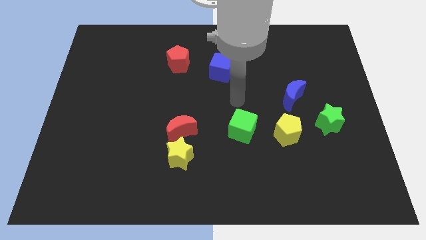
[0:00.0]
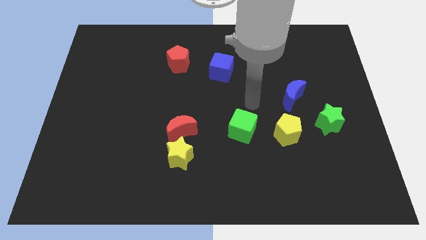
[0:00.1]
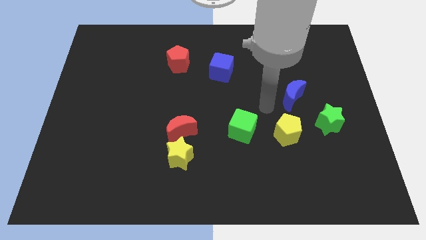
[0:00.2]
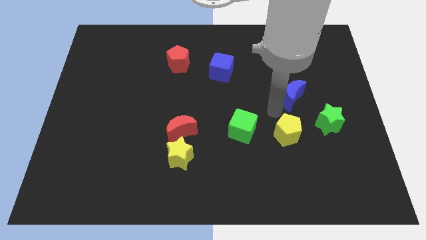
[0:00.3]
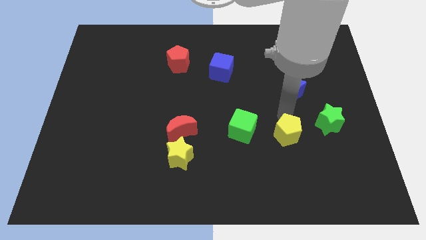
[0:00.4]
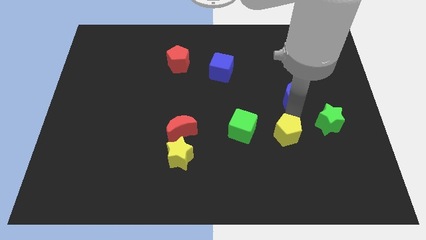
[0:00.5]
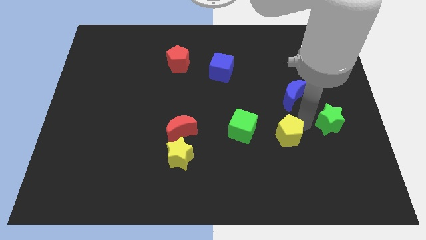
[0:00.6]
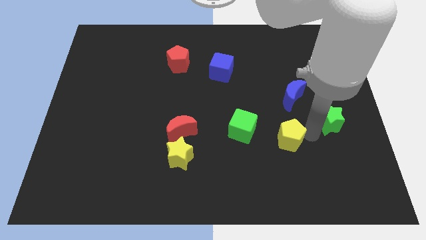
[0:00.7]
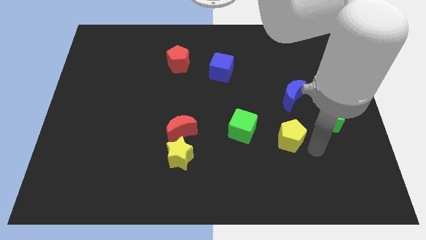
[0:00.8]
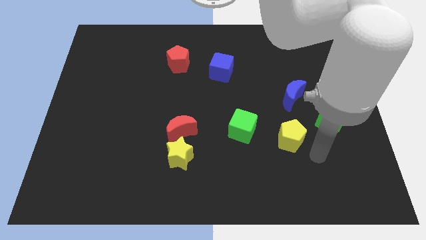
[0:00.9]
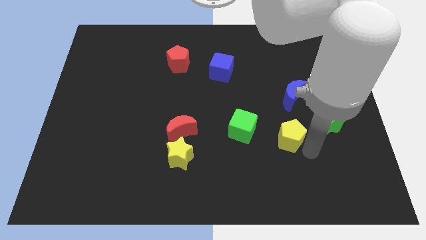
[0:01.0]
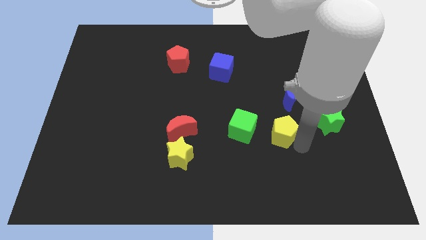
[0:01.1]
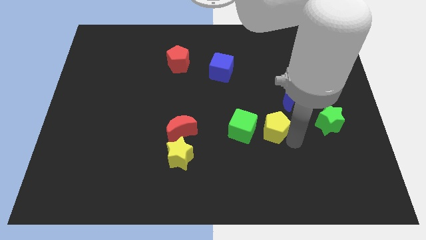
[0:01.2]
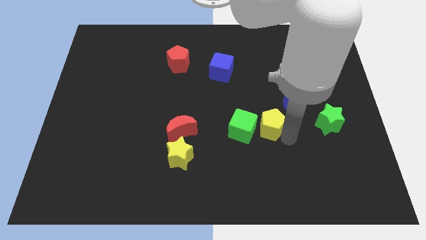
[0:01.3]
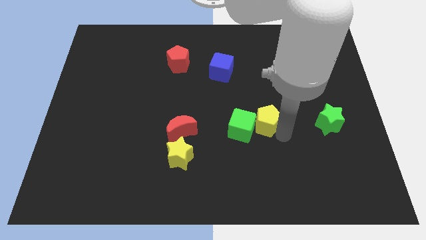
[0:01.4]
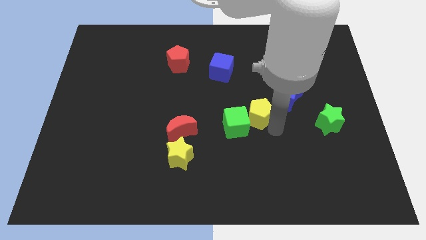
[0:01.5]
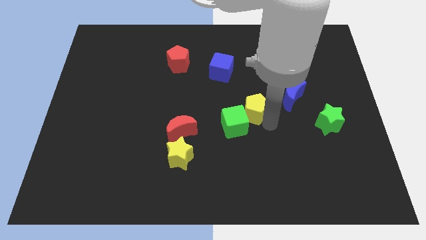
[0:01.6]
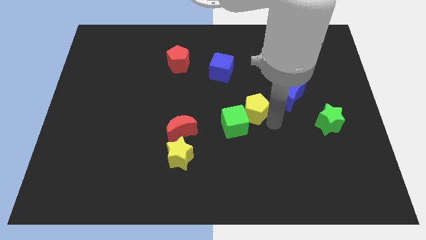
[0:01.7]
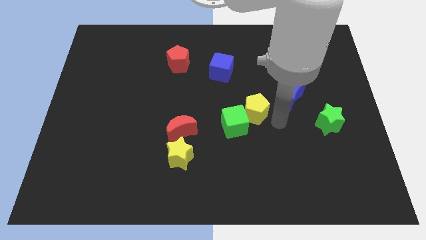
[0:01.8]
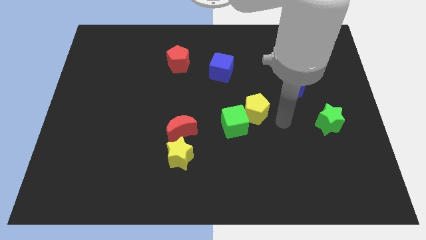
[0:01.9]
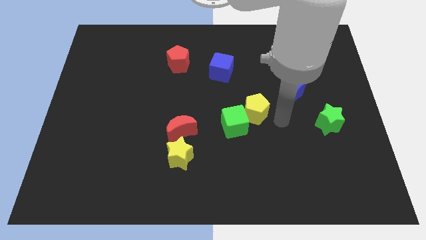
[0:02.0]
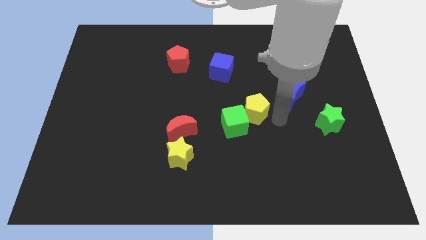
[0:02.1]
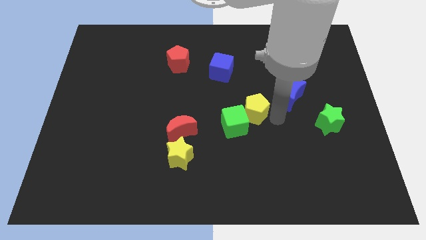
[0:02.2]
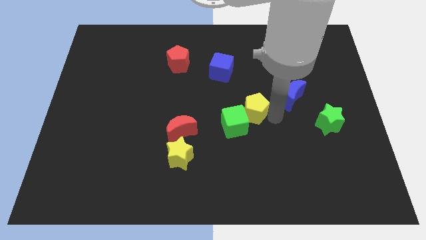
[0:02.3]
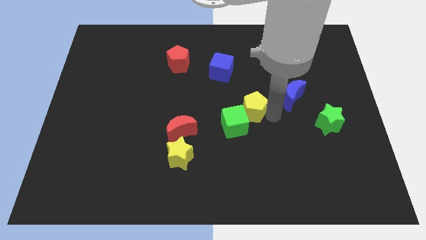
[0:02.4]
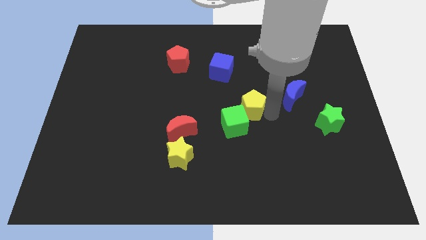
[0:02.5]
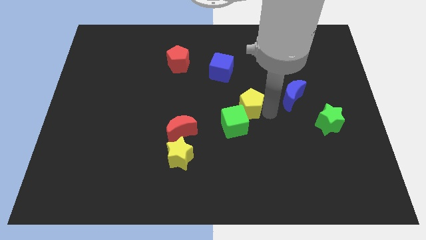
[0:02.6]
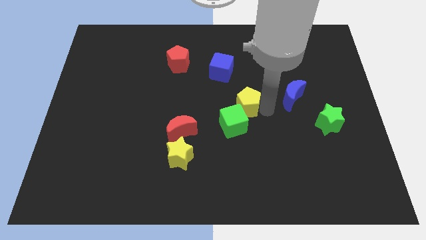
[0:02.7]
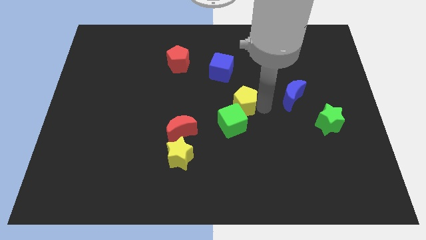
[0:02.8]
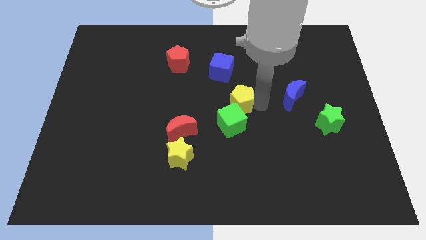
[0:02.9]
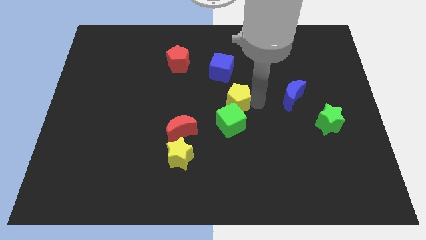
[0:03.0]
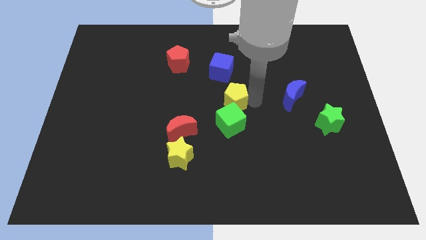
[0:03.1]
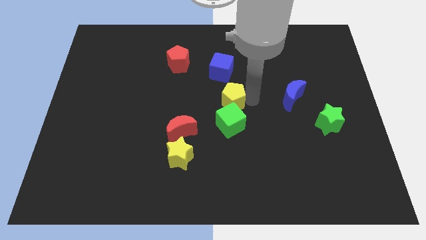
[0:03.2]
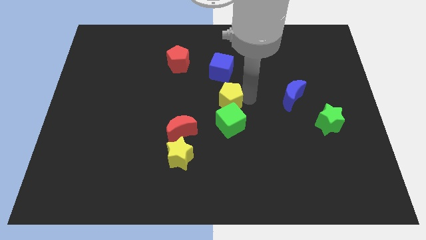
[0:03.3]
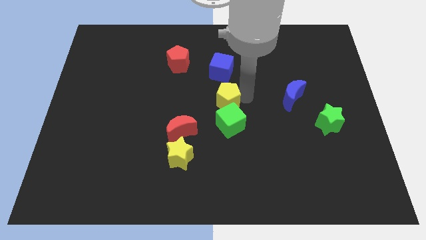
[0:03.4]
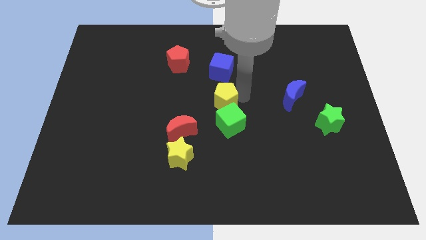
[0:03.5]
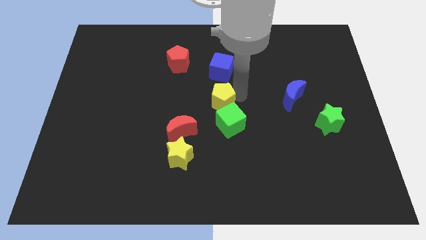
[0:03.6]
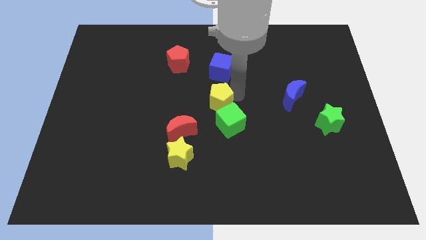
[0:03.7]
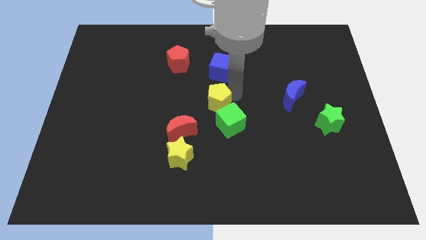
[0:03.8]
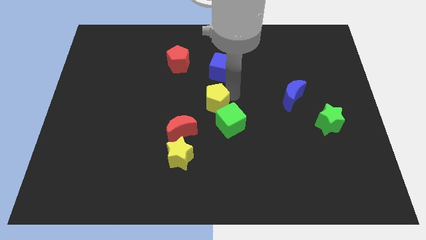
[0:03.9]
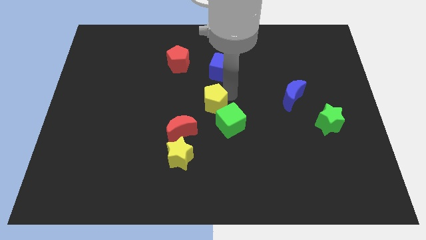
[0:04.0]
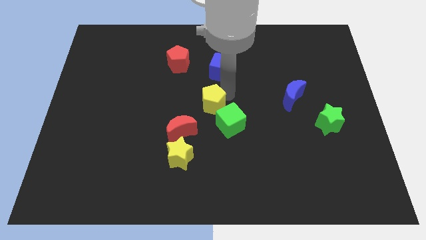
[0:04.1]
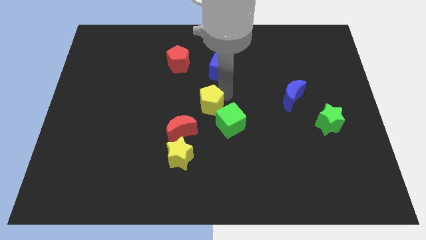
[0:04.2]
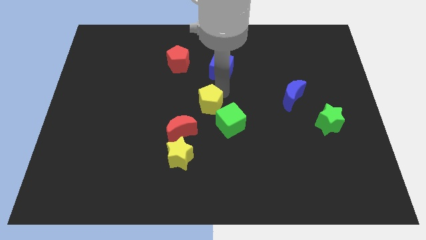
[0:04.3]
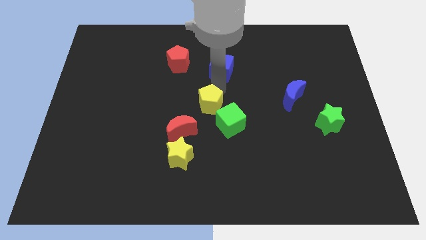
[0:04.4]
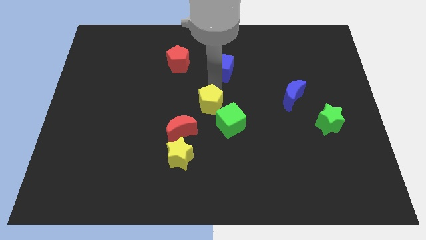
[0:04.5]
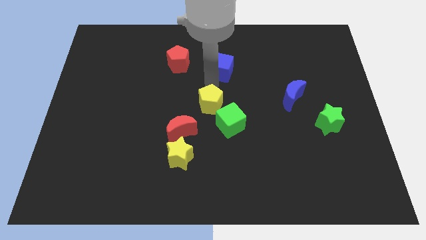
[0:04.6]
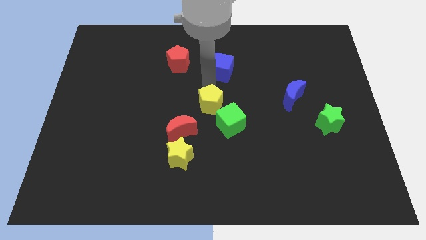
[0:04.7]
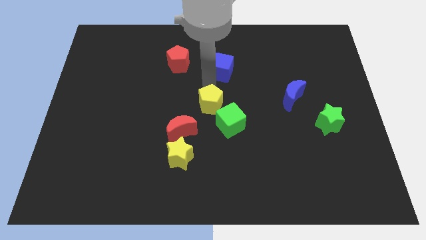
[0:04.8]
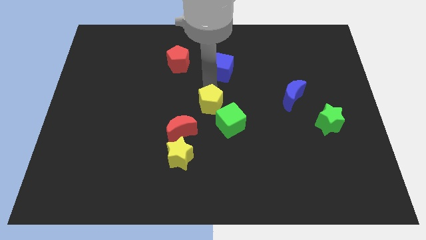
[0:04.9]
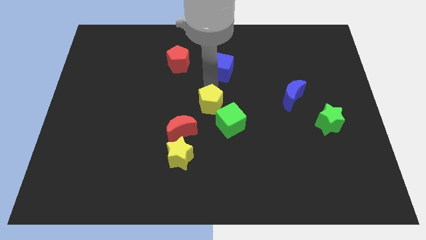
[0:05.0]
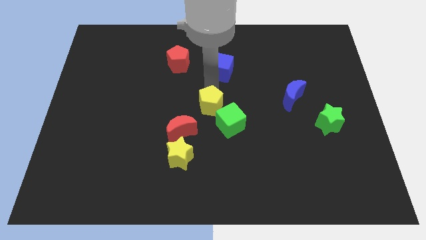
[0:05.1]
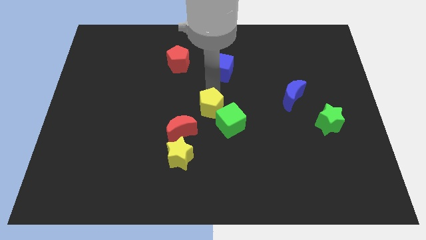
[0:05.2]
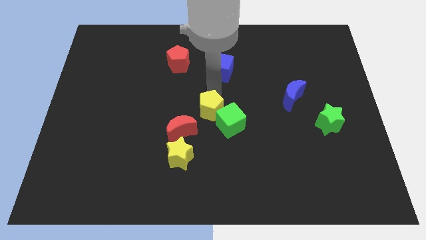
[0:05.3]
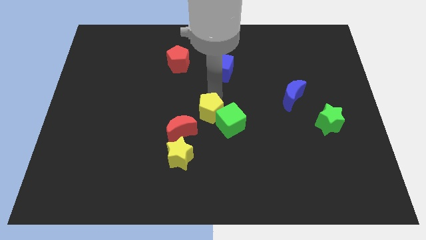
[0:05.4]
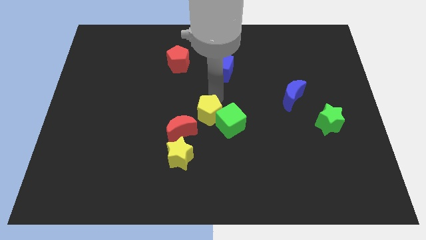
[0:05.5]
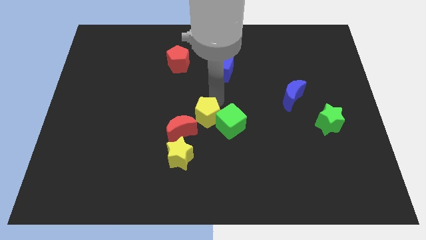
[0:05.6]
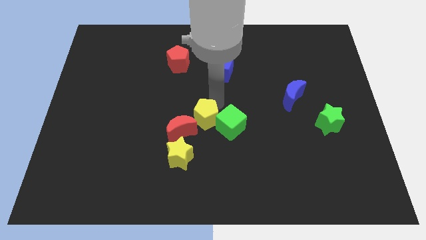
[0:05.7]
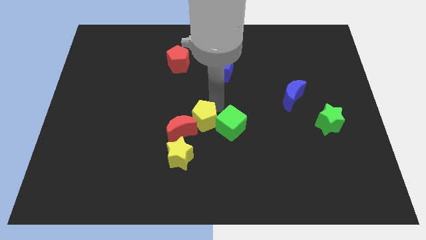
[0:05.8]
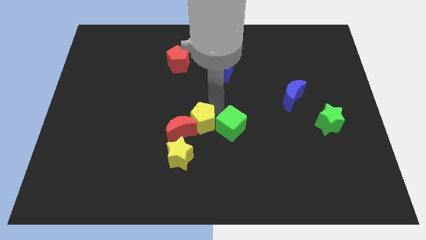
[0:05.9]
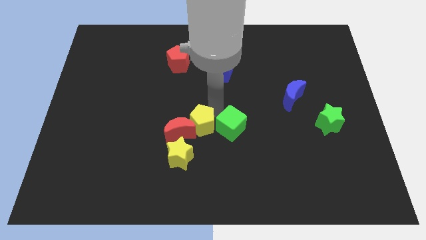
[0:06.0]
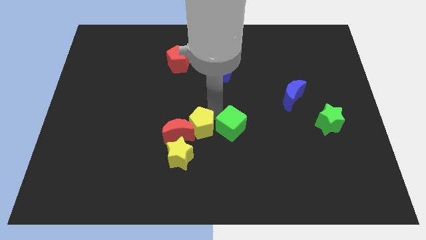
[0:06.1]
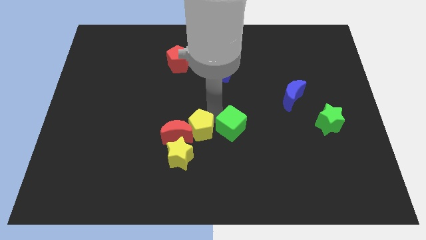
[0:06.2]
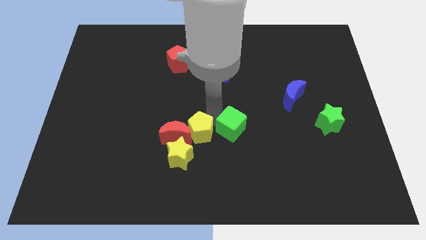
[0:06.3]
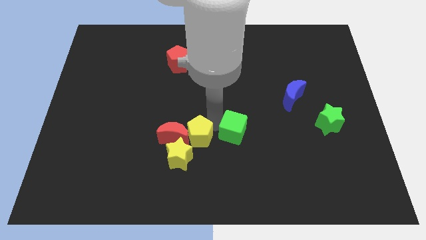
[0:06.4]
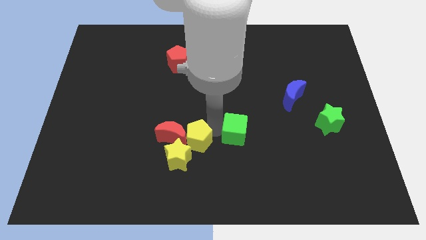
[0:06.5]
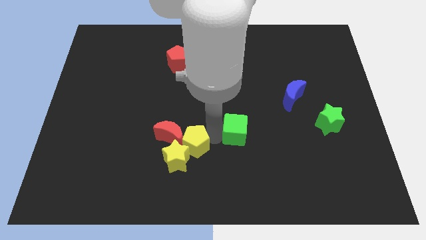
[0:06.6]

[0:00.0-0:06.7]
move the yellow pentagon to the left

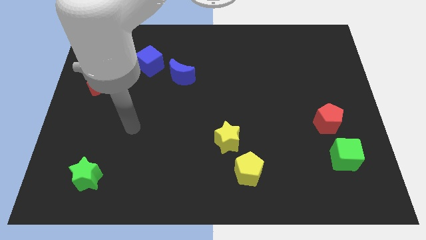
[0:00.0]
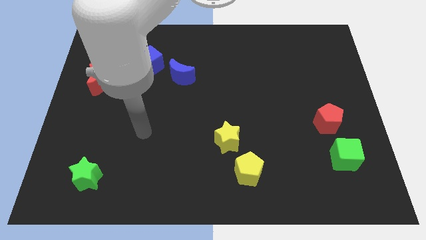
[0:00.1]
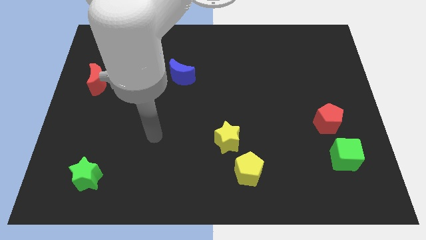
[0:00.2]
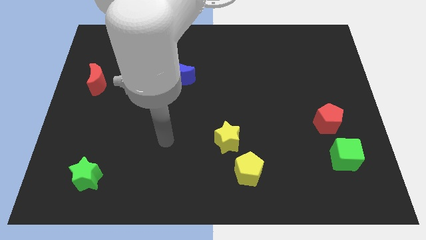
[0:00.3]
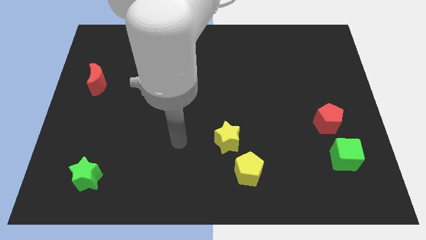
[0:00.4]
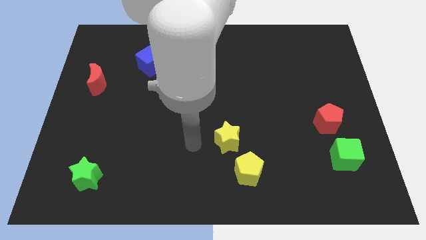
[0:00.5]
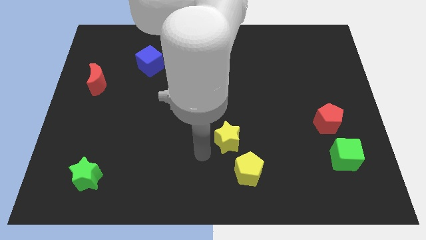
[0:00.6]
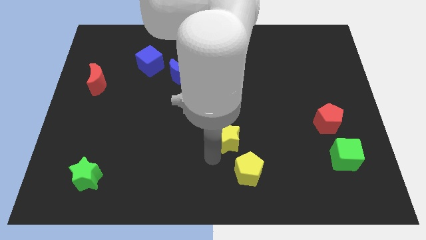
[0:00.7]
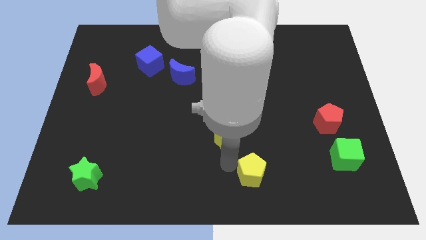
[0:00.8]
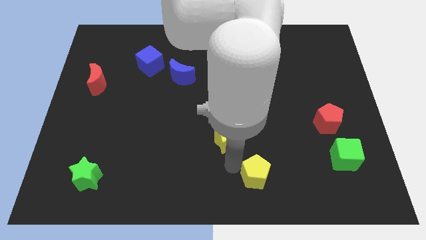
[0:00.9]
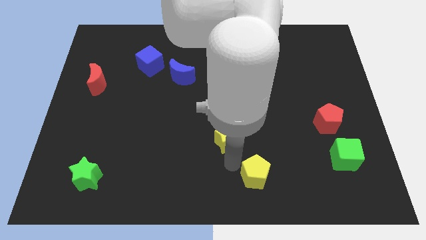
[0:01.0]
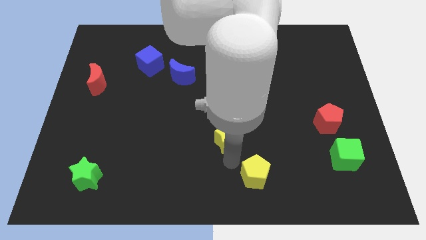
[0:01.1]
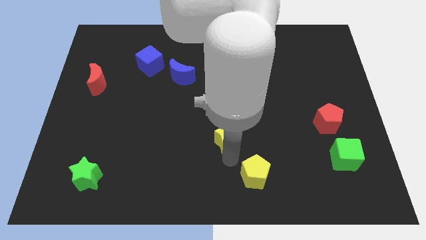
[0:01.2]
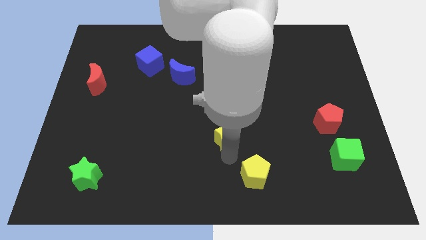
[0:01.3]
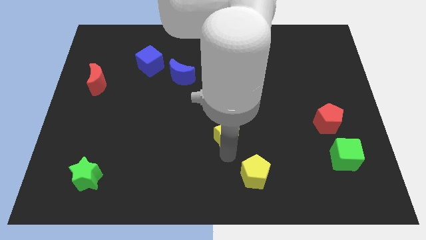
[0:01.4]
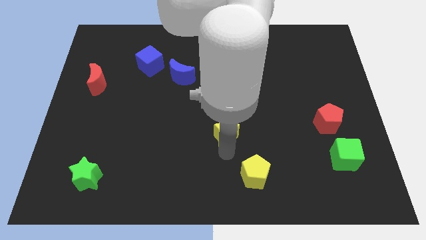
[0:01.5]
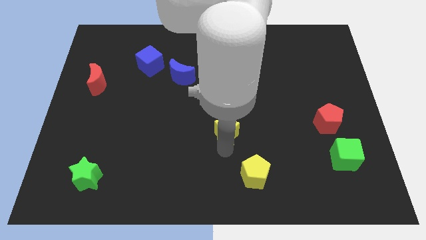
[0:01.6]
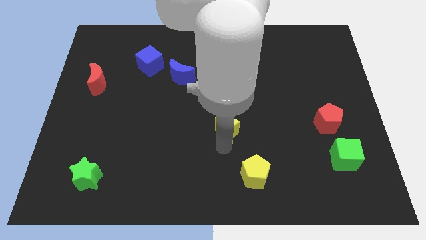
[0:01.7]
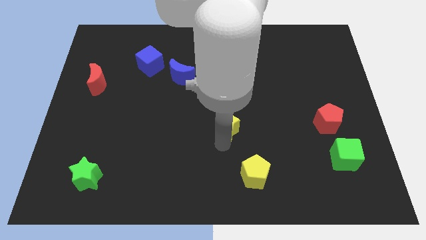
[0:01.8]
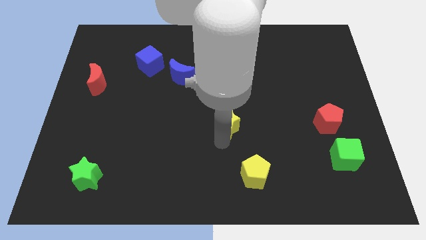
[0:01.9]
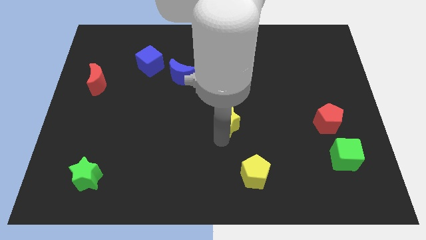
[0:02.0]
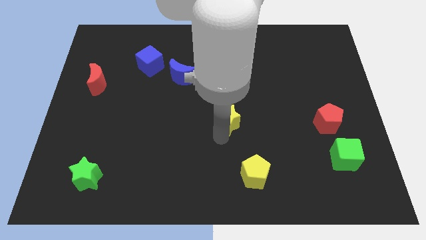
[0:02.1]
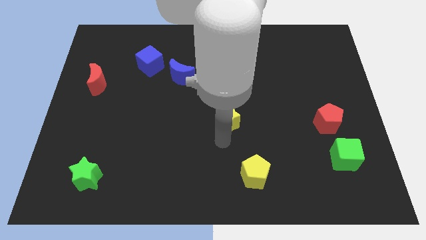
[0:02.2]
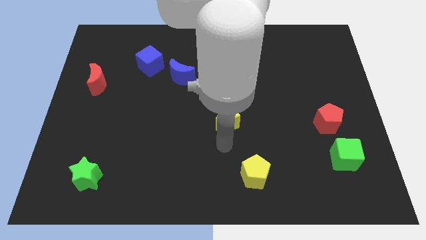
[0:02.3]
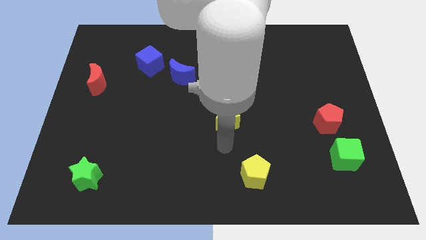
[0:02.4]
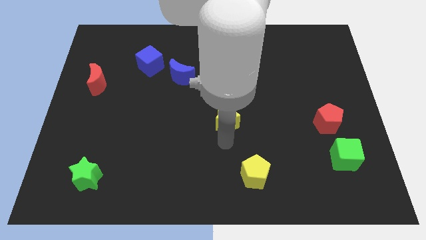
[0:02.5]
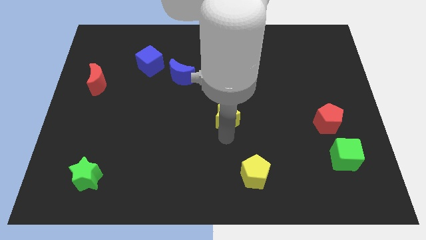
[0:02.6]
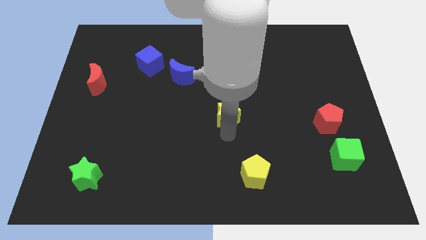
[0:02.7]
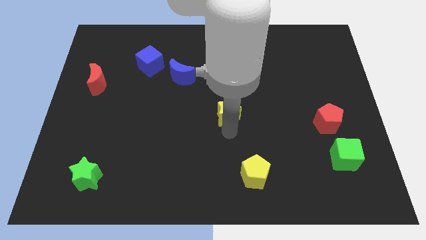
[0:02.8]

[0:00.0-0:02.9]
move the yellow star slightly up
